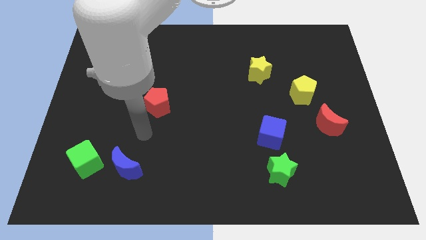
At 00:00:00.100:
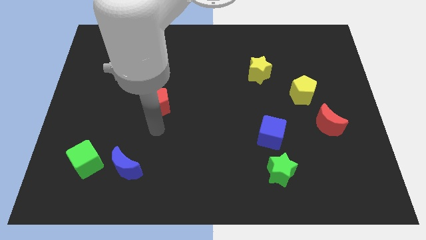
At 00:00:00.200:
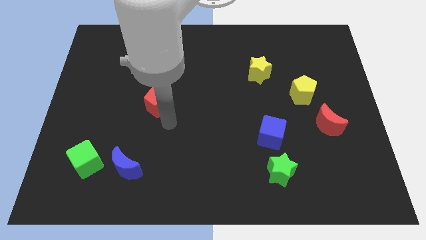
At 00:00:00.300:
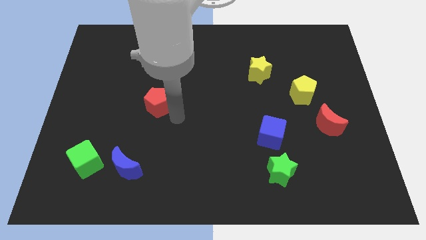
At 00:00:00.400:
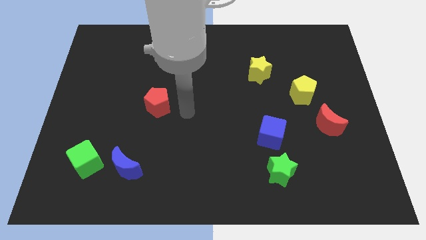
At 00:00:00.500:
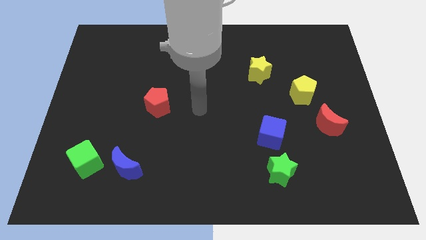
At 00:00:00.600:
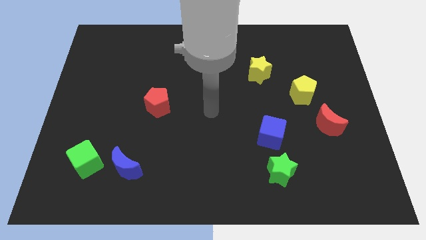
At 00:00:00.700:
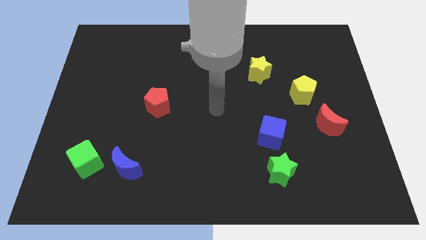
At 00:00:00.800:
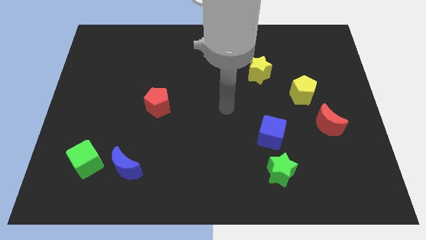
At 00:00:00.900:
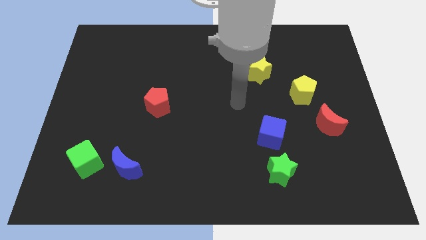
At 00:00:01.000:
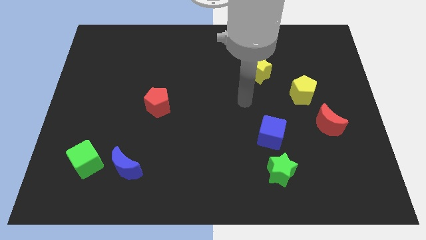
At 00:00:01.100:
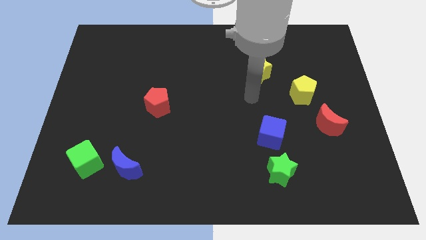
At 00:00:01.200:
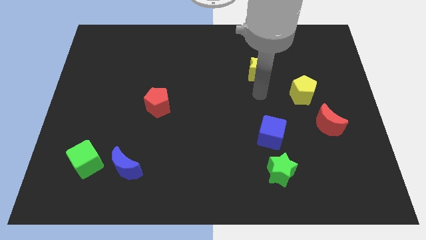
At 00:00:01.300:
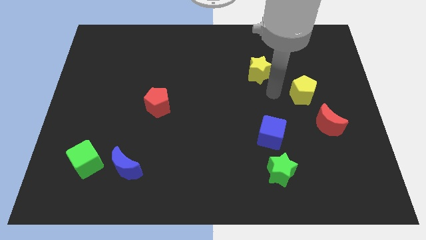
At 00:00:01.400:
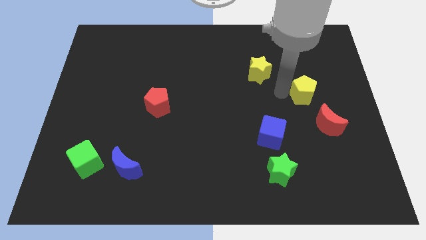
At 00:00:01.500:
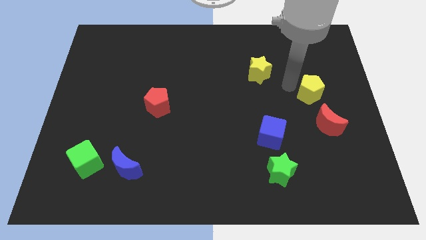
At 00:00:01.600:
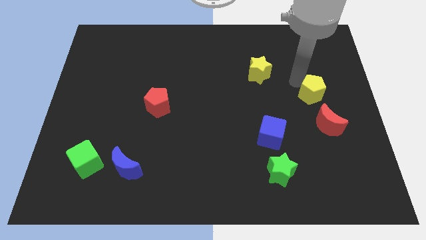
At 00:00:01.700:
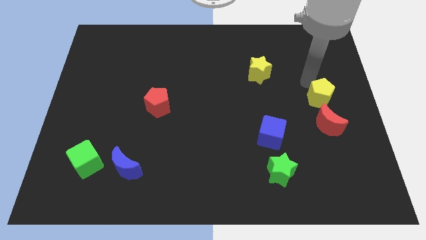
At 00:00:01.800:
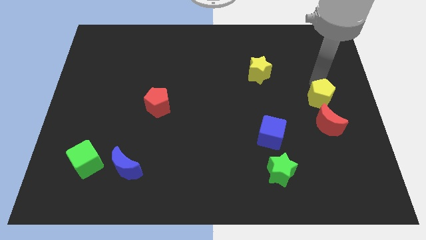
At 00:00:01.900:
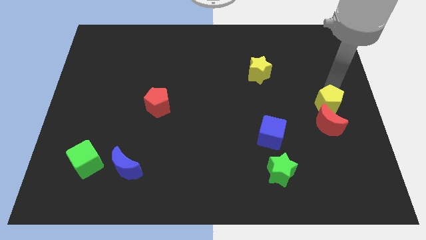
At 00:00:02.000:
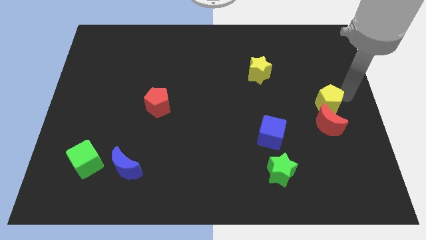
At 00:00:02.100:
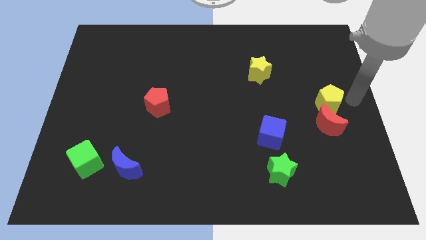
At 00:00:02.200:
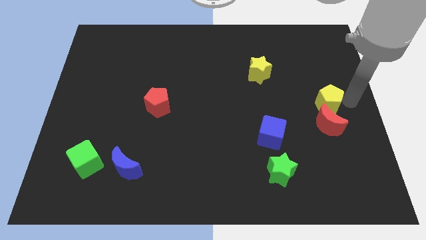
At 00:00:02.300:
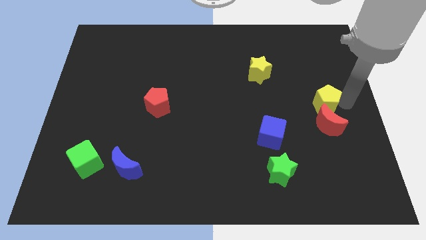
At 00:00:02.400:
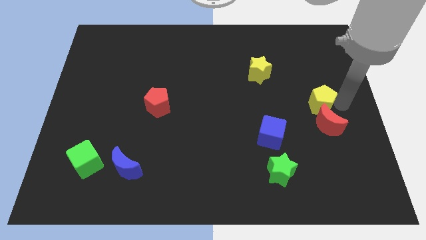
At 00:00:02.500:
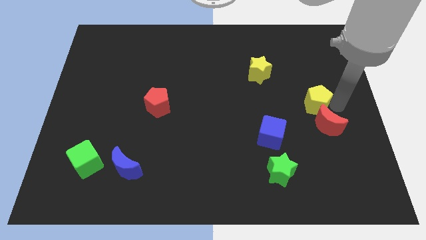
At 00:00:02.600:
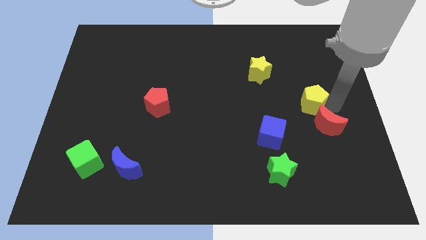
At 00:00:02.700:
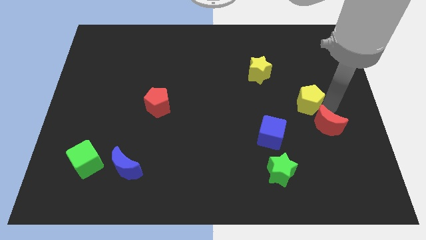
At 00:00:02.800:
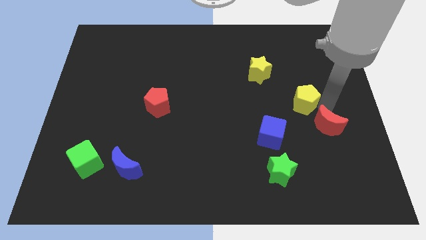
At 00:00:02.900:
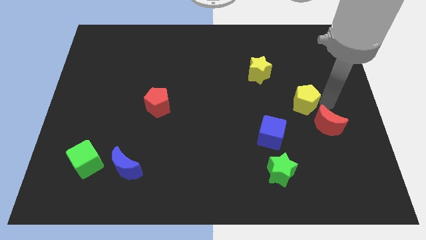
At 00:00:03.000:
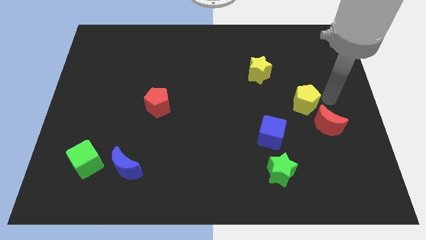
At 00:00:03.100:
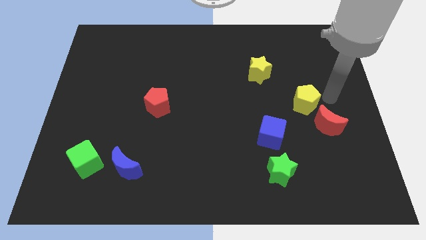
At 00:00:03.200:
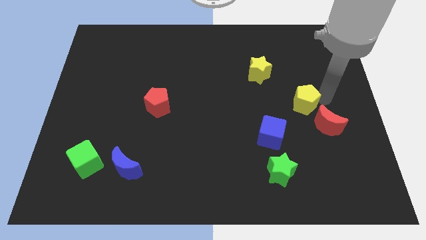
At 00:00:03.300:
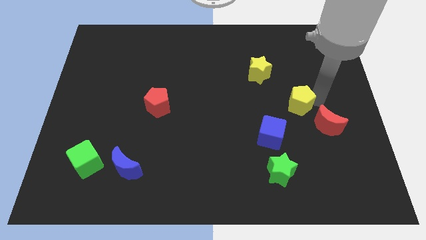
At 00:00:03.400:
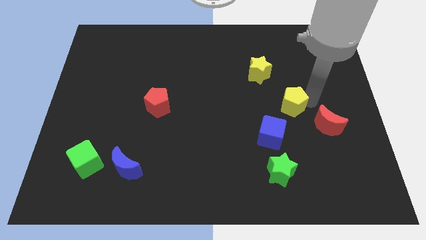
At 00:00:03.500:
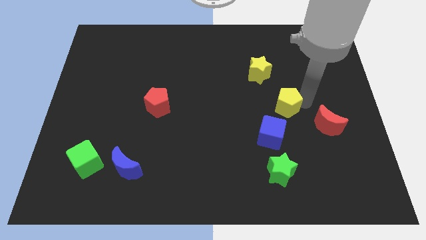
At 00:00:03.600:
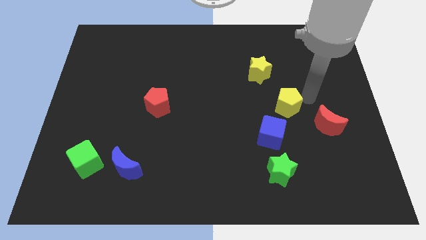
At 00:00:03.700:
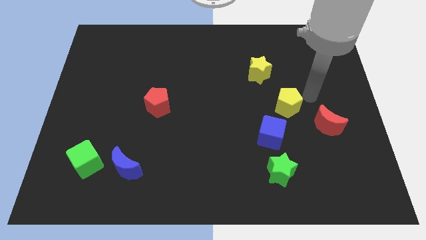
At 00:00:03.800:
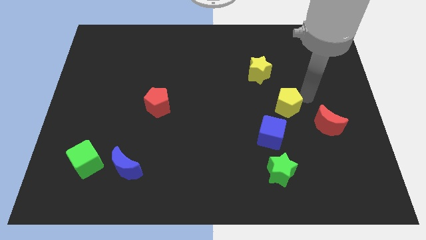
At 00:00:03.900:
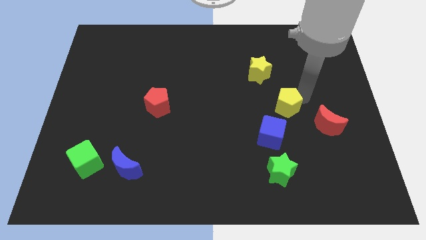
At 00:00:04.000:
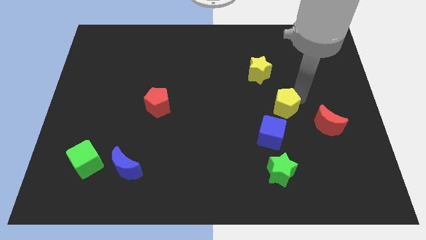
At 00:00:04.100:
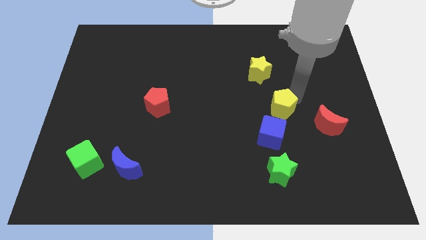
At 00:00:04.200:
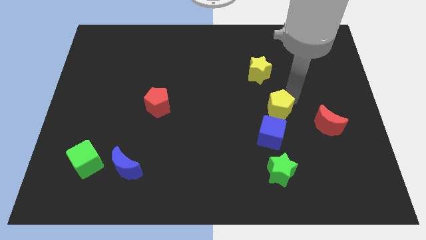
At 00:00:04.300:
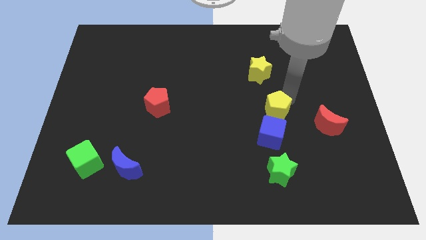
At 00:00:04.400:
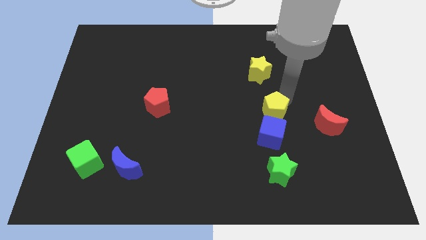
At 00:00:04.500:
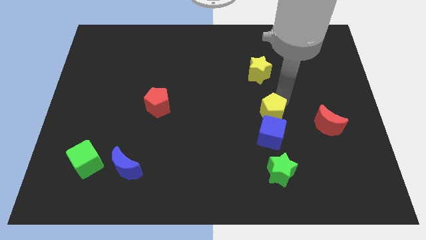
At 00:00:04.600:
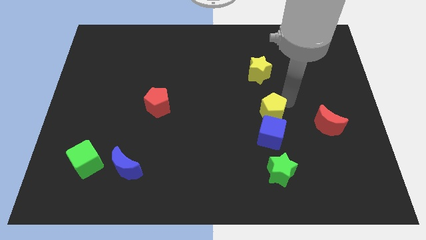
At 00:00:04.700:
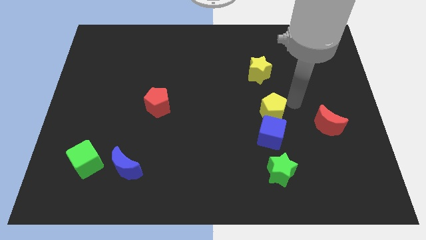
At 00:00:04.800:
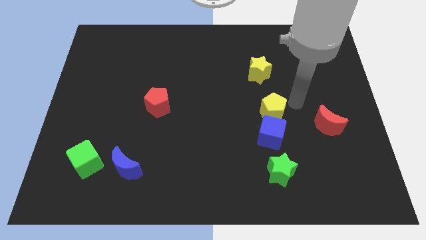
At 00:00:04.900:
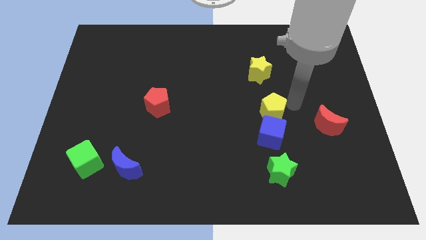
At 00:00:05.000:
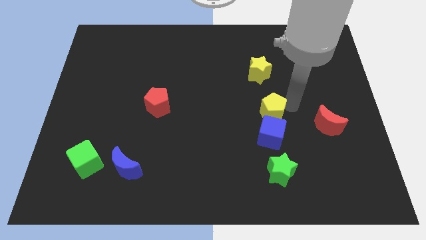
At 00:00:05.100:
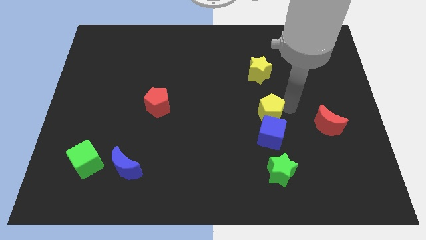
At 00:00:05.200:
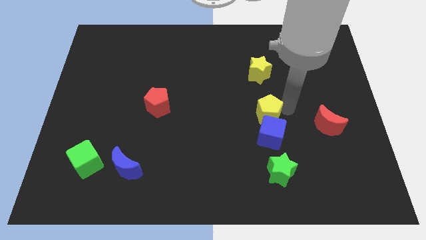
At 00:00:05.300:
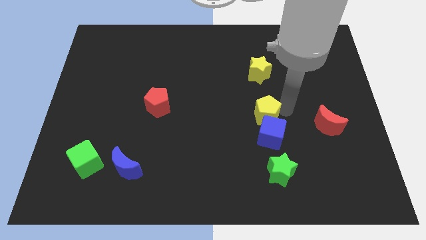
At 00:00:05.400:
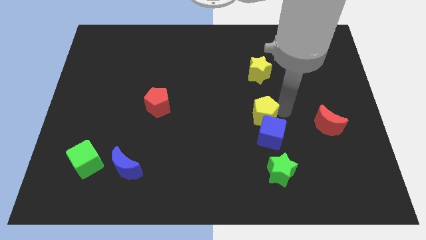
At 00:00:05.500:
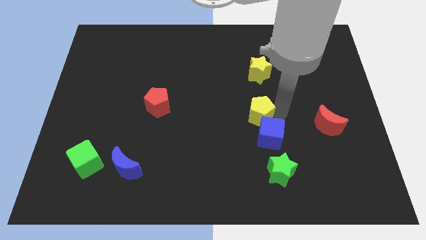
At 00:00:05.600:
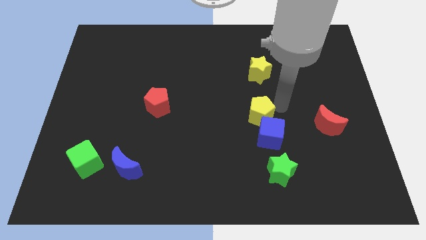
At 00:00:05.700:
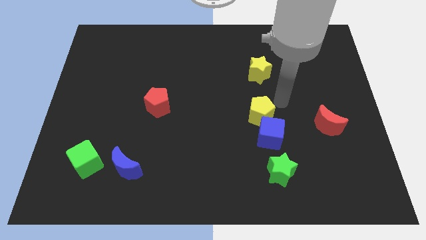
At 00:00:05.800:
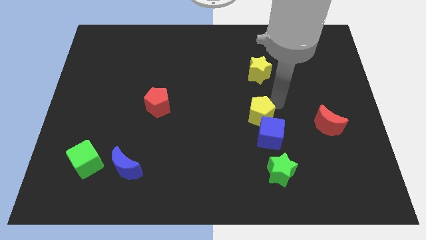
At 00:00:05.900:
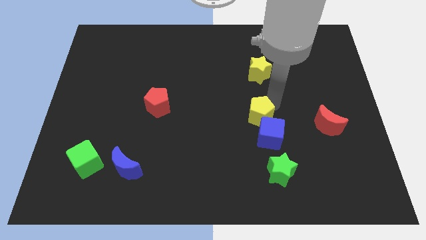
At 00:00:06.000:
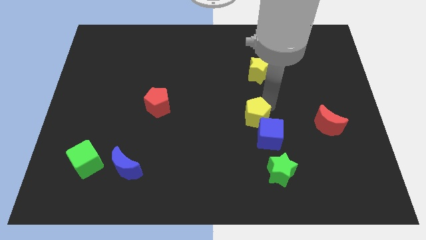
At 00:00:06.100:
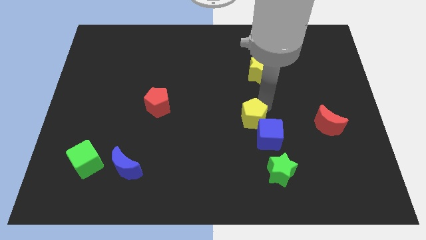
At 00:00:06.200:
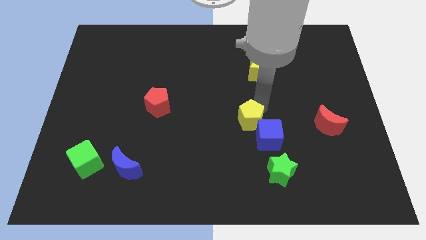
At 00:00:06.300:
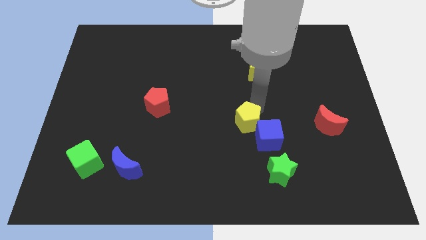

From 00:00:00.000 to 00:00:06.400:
push the yellow pentagon just left of the blue cube

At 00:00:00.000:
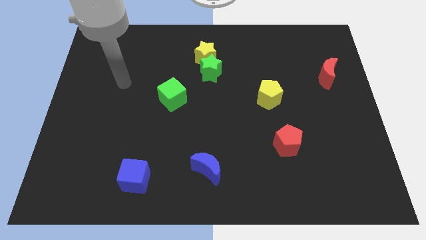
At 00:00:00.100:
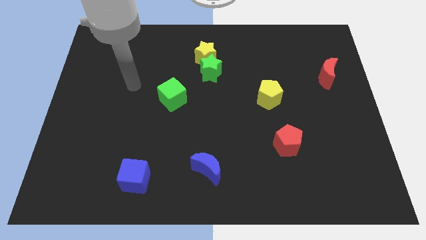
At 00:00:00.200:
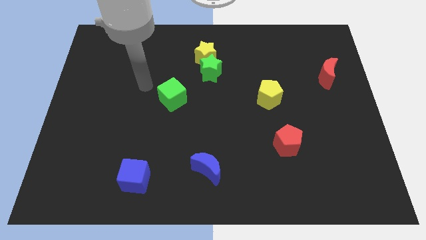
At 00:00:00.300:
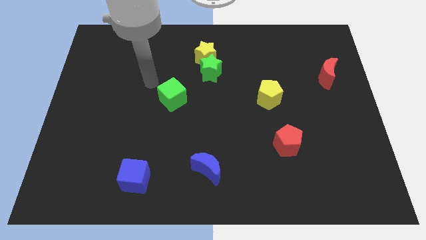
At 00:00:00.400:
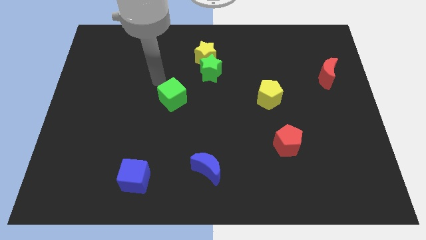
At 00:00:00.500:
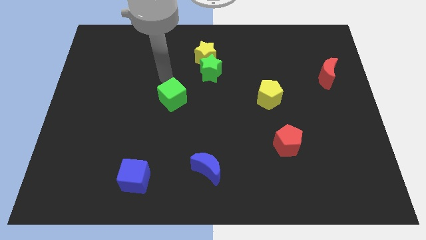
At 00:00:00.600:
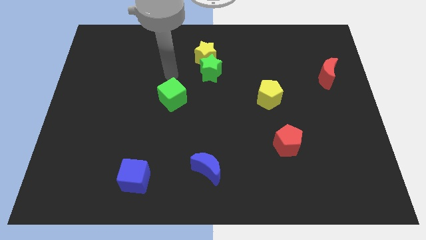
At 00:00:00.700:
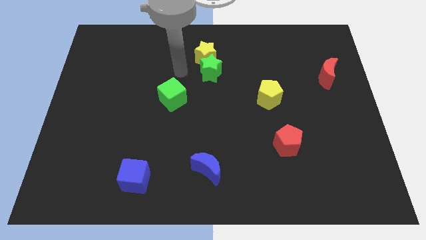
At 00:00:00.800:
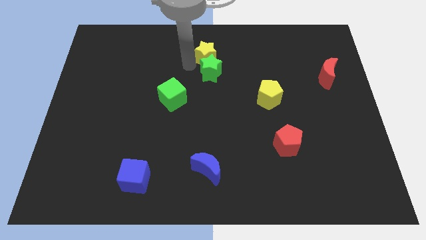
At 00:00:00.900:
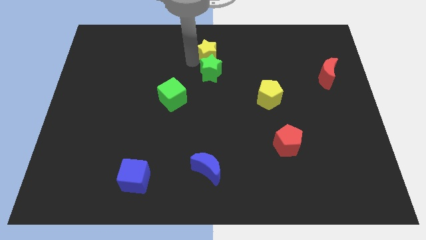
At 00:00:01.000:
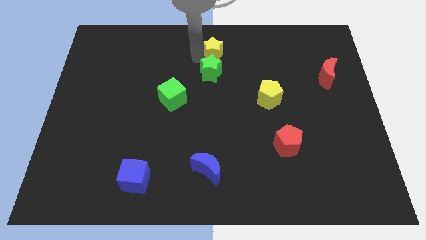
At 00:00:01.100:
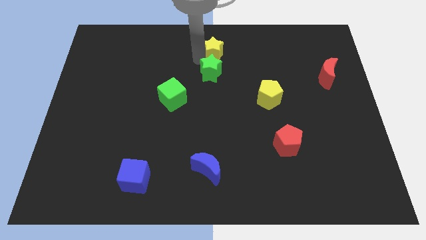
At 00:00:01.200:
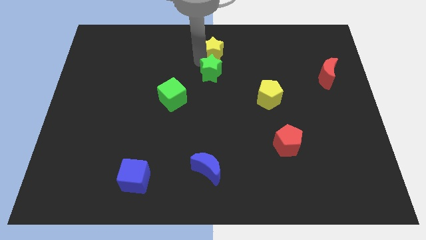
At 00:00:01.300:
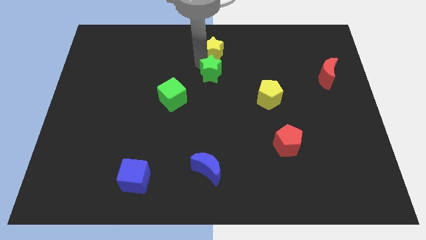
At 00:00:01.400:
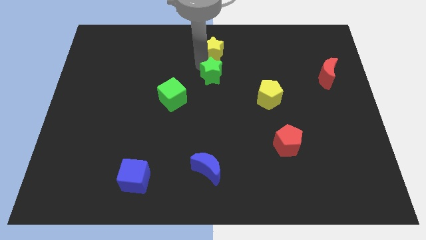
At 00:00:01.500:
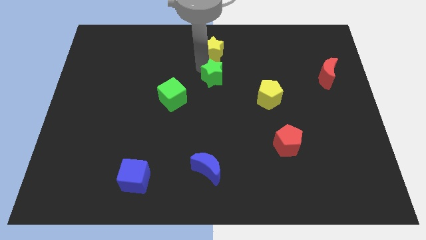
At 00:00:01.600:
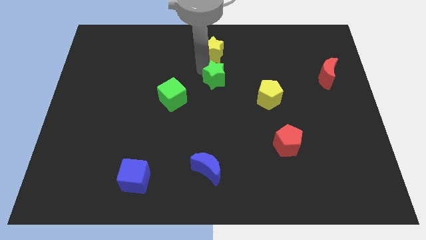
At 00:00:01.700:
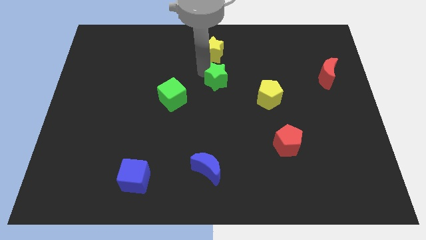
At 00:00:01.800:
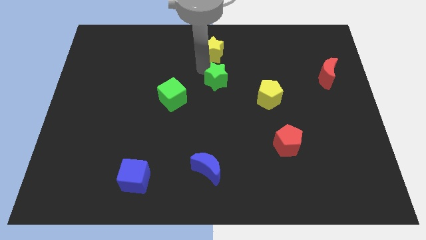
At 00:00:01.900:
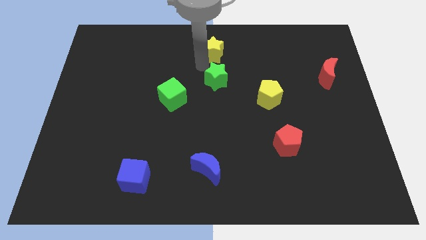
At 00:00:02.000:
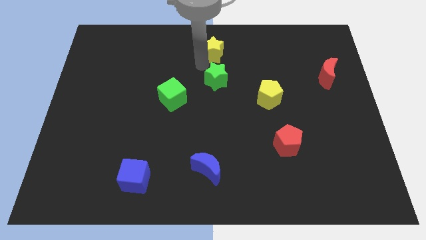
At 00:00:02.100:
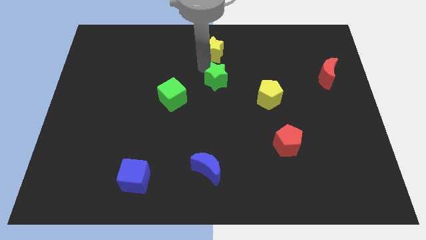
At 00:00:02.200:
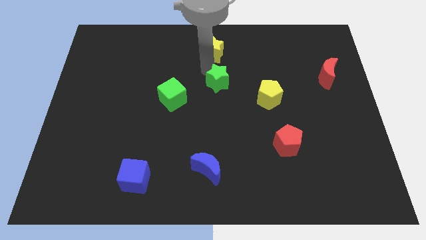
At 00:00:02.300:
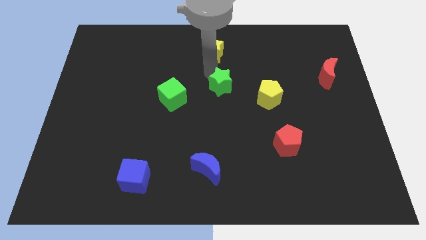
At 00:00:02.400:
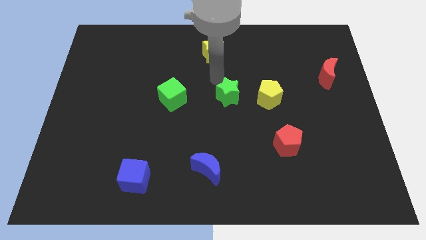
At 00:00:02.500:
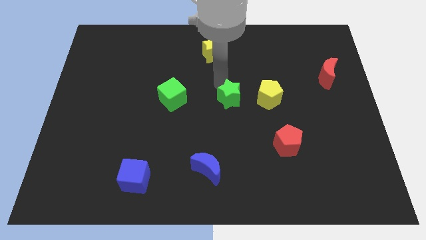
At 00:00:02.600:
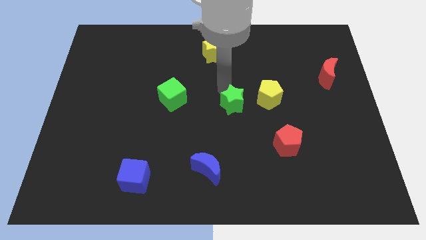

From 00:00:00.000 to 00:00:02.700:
put the green star to the bottom left of the yellow pentagon
